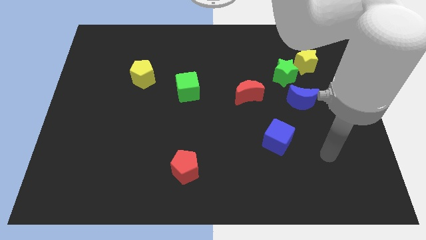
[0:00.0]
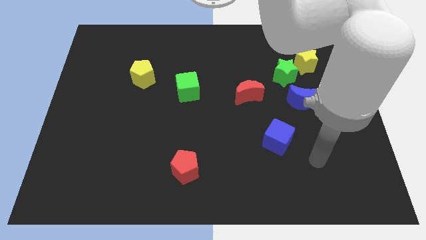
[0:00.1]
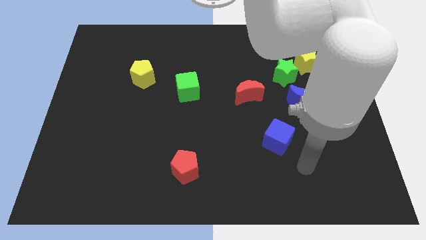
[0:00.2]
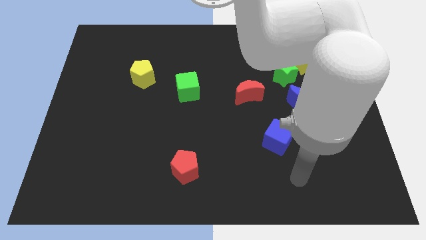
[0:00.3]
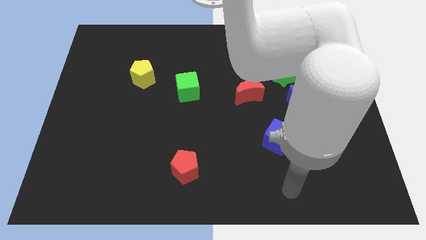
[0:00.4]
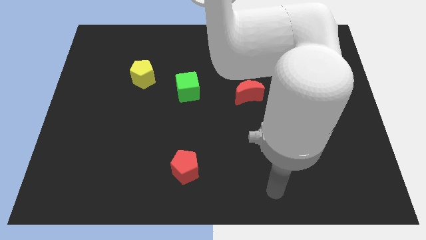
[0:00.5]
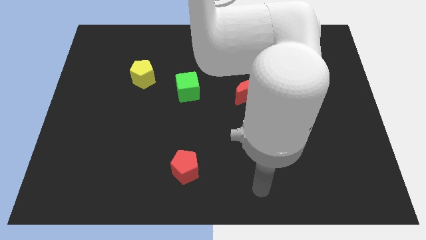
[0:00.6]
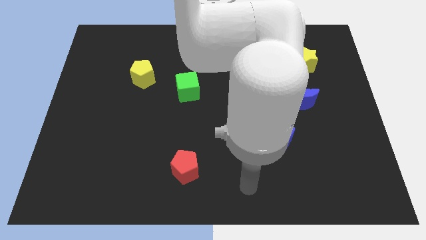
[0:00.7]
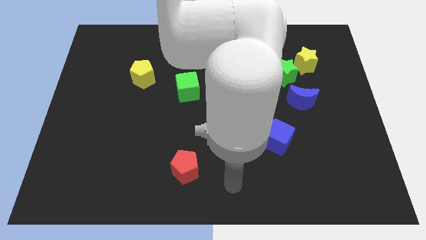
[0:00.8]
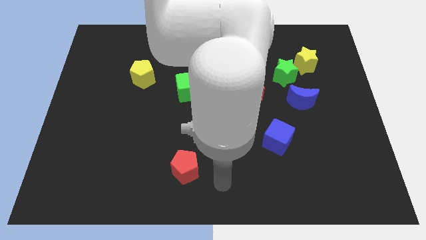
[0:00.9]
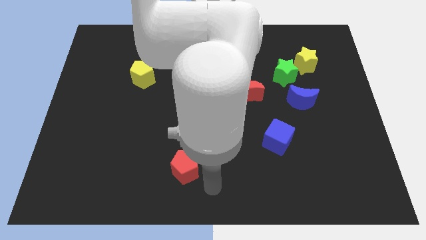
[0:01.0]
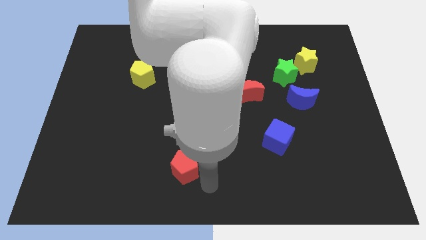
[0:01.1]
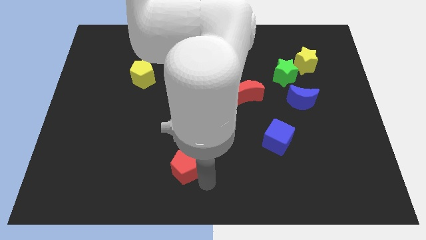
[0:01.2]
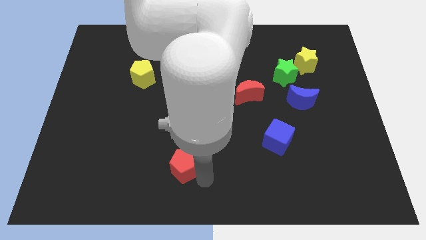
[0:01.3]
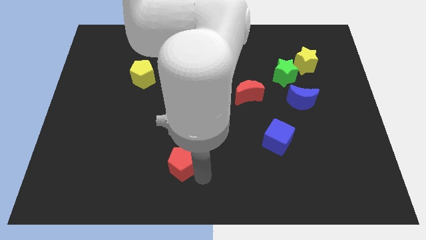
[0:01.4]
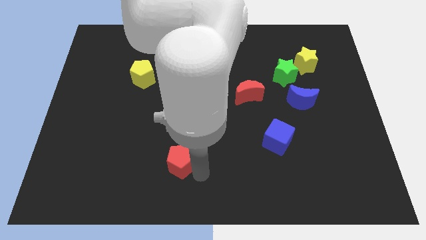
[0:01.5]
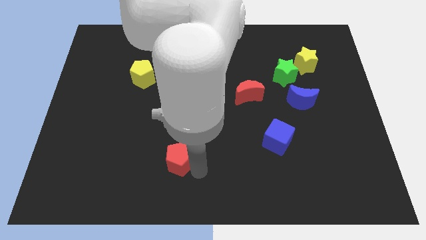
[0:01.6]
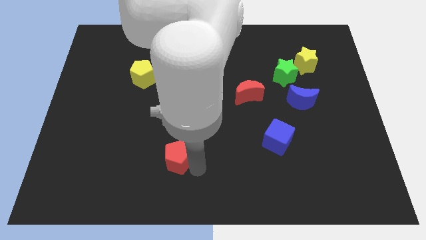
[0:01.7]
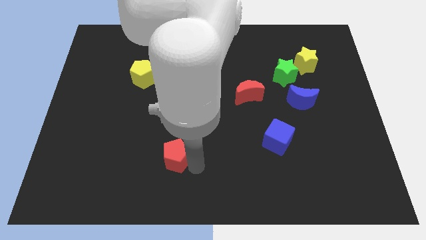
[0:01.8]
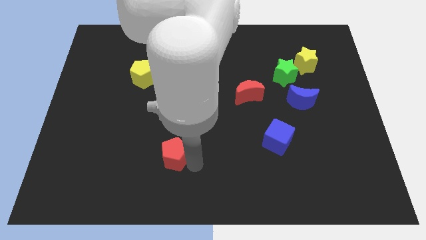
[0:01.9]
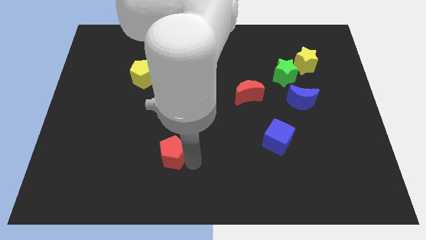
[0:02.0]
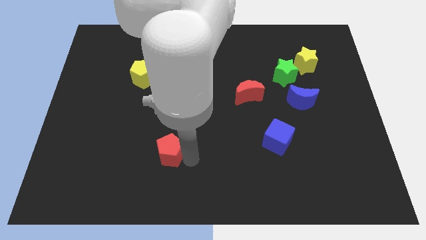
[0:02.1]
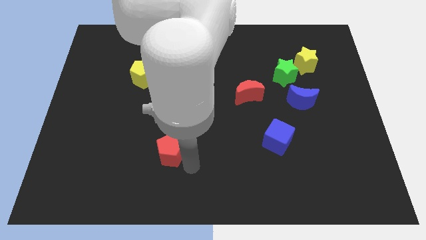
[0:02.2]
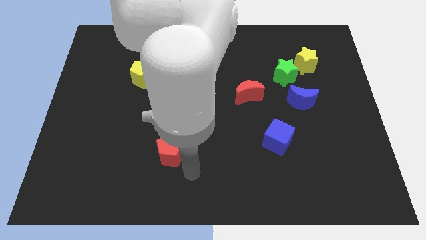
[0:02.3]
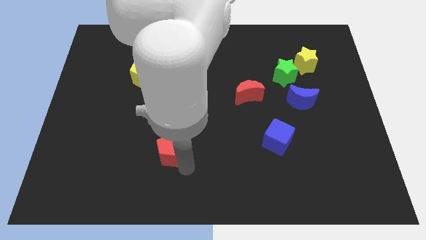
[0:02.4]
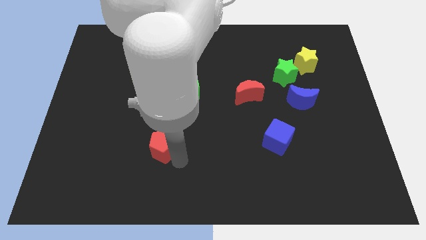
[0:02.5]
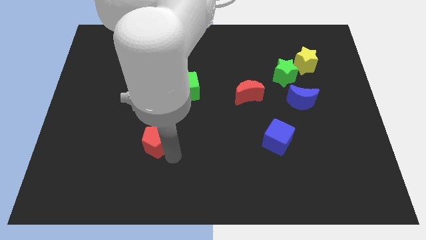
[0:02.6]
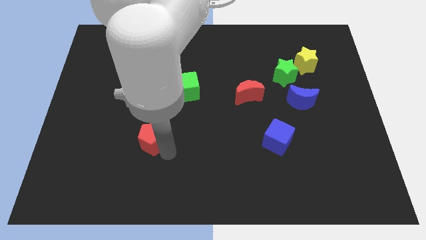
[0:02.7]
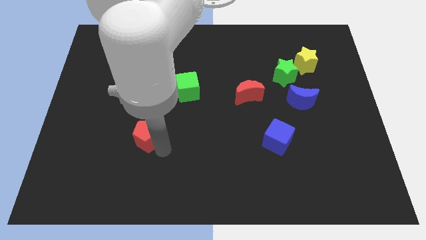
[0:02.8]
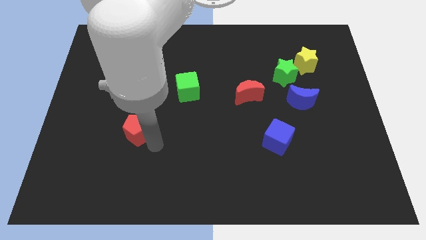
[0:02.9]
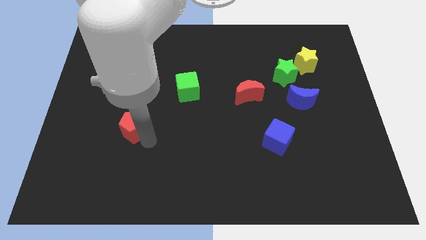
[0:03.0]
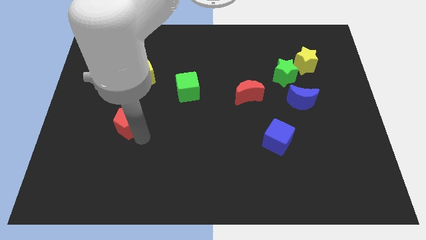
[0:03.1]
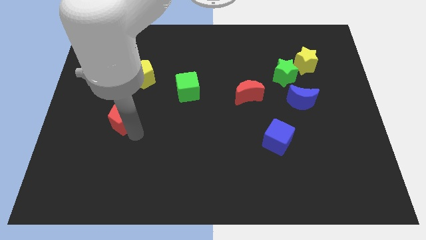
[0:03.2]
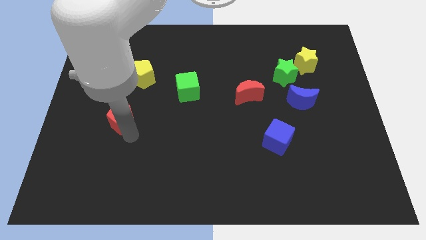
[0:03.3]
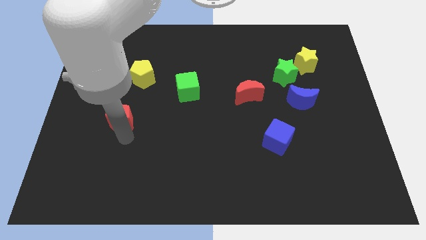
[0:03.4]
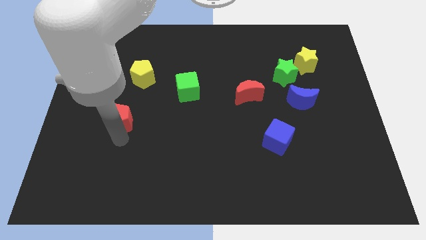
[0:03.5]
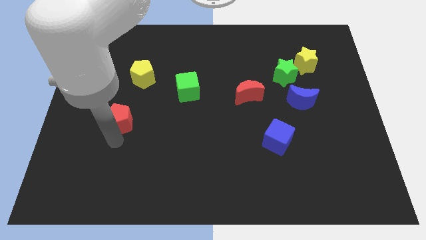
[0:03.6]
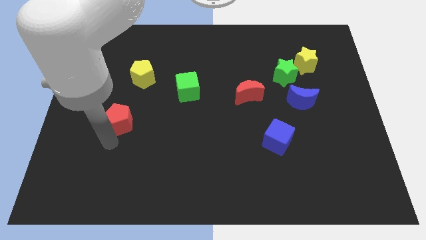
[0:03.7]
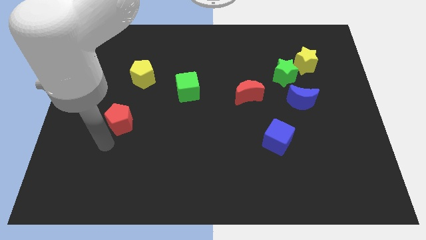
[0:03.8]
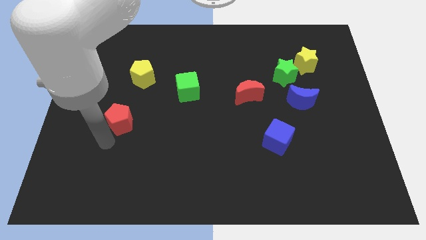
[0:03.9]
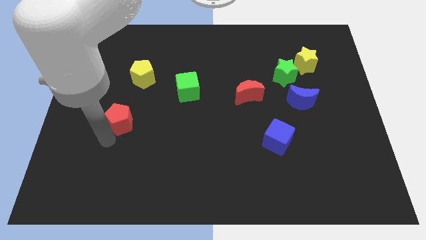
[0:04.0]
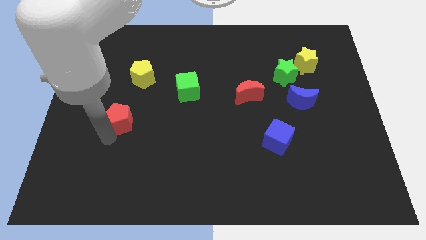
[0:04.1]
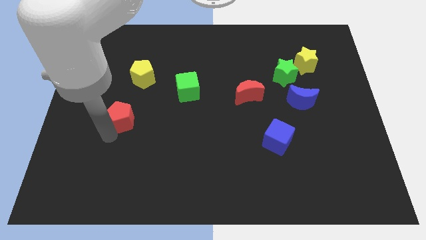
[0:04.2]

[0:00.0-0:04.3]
push the red pentagon diagonally up and to the left

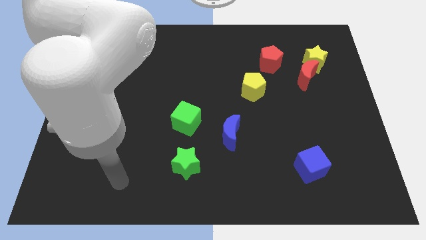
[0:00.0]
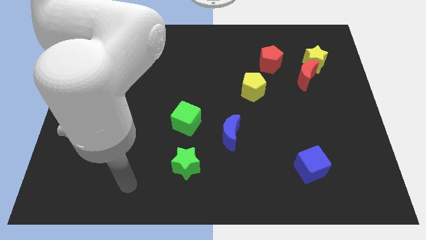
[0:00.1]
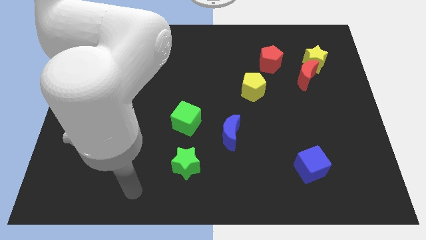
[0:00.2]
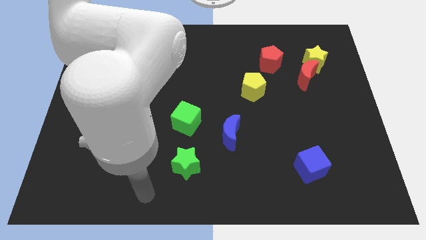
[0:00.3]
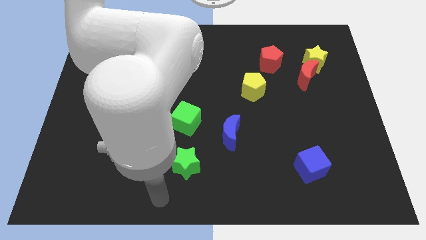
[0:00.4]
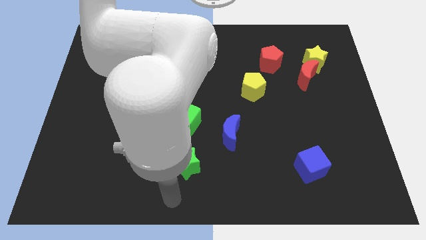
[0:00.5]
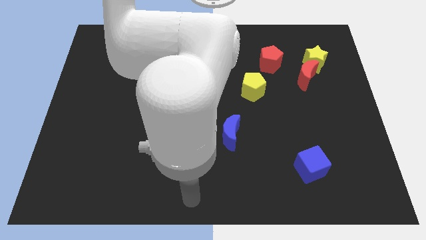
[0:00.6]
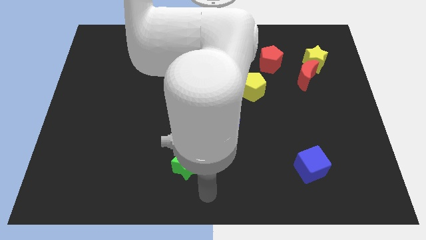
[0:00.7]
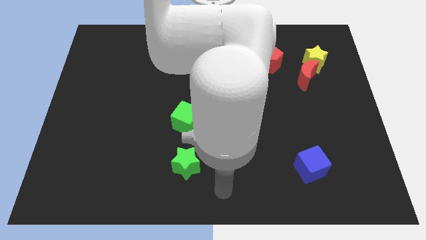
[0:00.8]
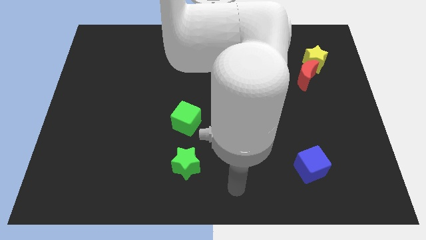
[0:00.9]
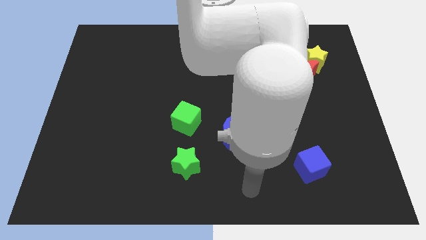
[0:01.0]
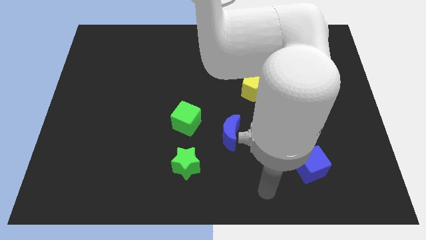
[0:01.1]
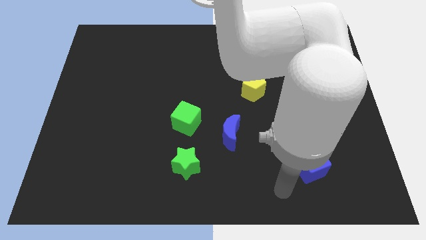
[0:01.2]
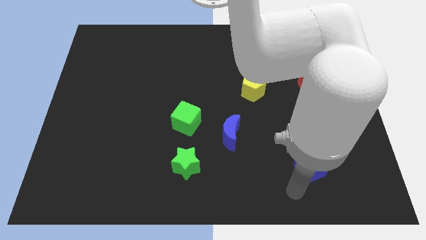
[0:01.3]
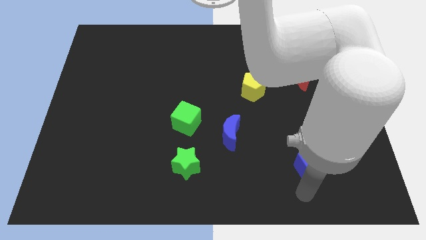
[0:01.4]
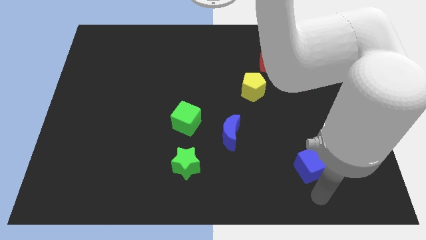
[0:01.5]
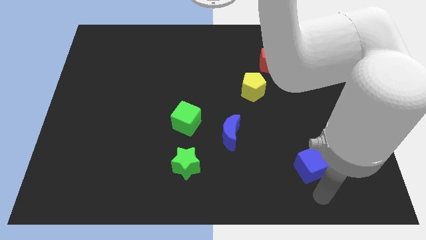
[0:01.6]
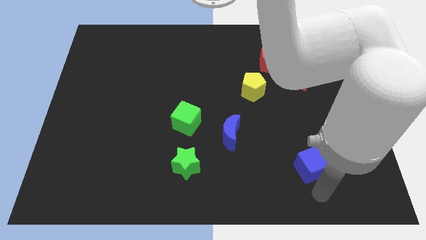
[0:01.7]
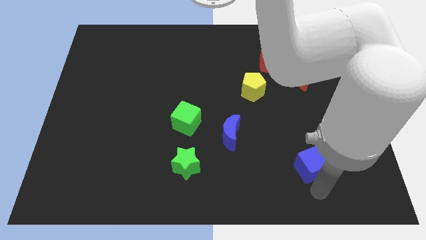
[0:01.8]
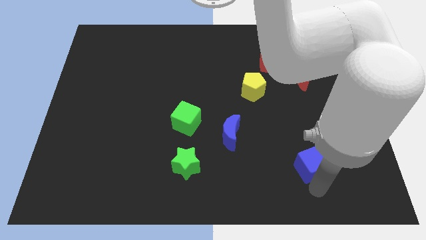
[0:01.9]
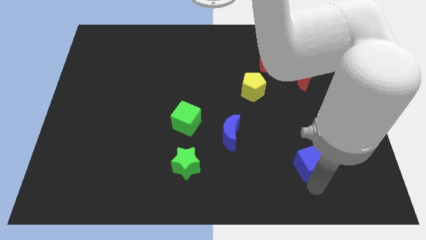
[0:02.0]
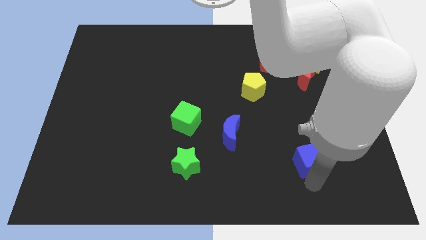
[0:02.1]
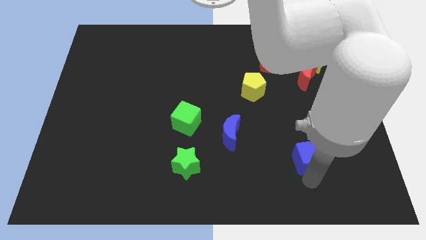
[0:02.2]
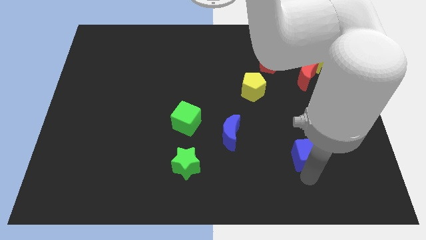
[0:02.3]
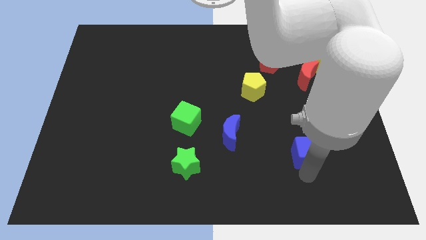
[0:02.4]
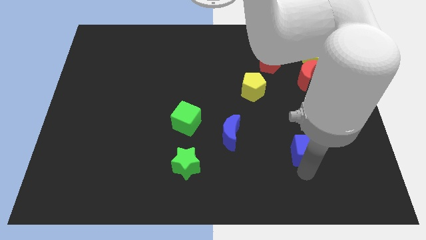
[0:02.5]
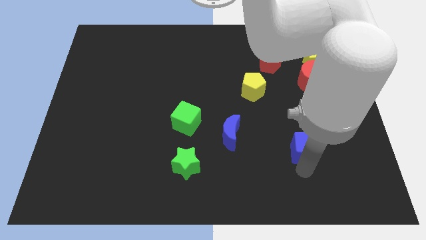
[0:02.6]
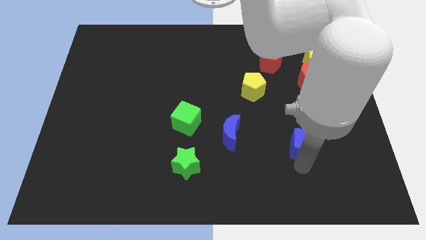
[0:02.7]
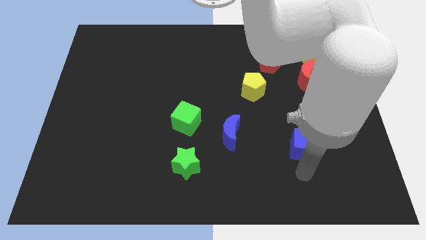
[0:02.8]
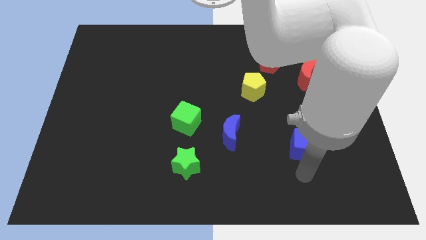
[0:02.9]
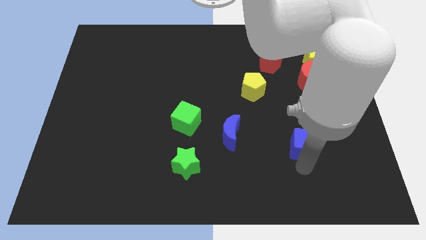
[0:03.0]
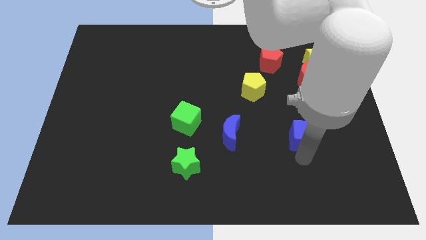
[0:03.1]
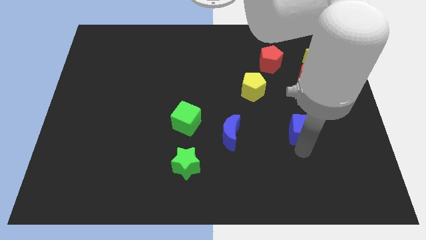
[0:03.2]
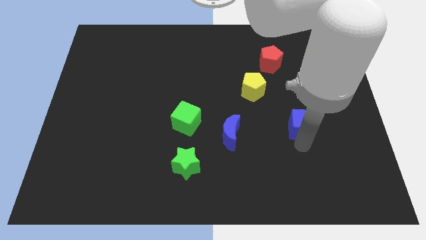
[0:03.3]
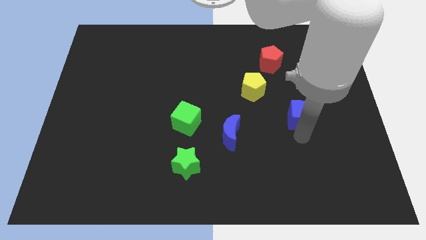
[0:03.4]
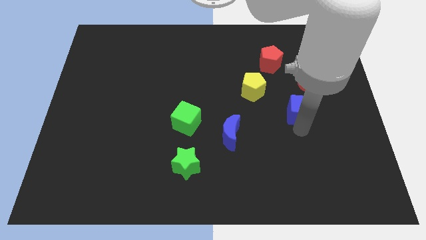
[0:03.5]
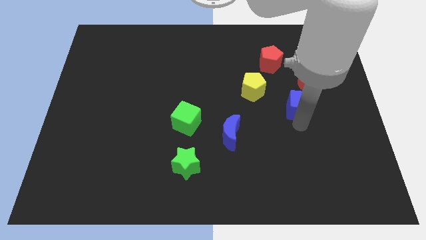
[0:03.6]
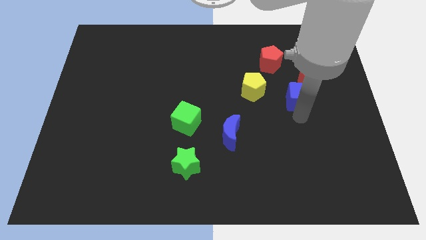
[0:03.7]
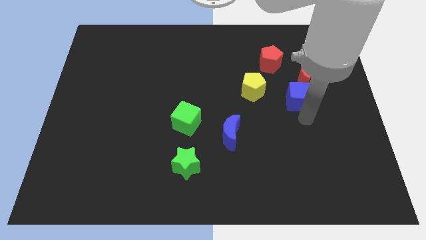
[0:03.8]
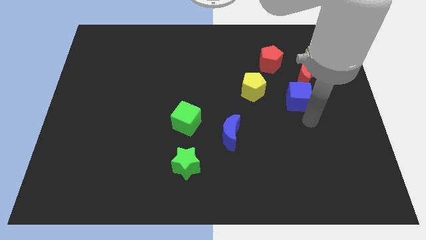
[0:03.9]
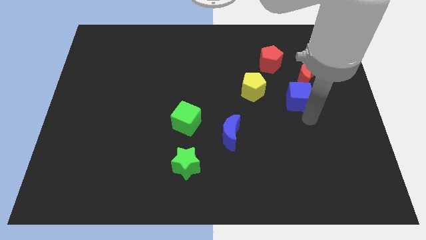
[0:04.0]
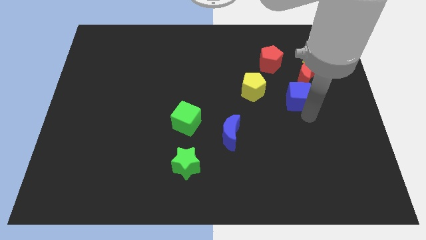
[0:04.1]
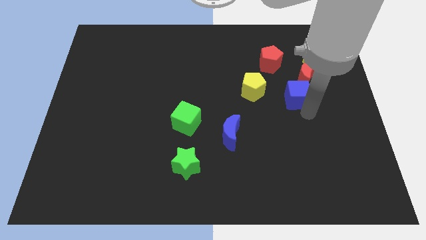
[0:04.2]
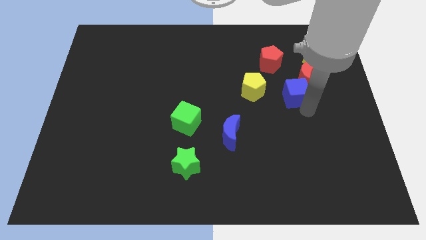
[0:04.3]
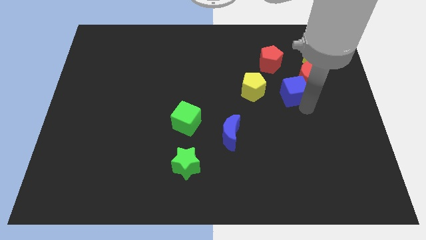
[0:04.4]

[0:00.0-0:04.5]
move the blue cube up
